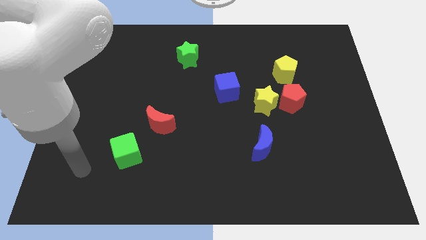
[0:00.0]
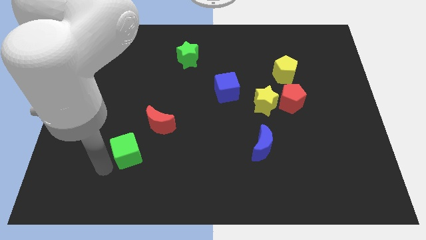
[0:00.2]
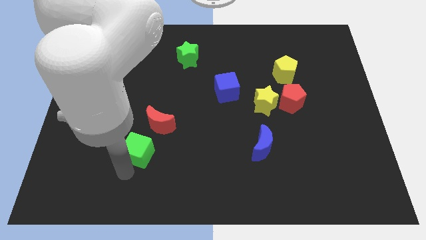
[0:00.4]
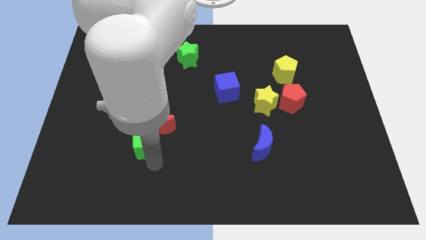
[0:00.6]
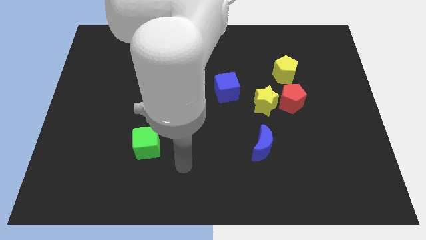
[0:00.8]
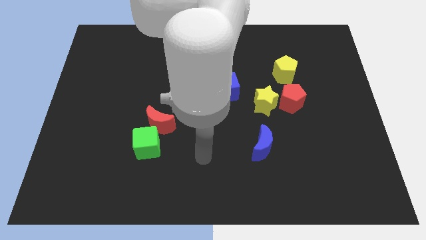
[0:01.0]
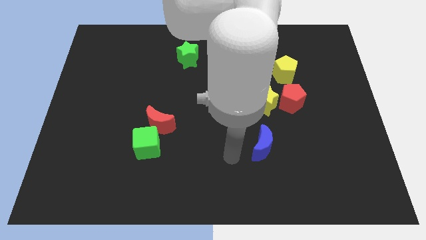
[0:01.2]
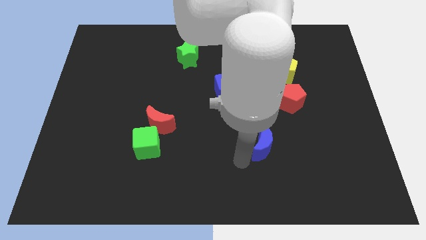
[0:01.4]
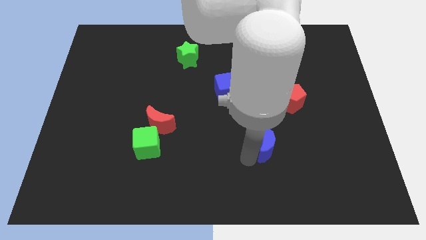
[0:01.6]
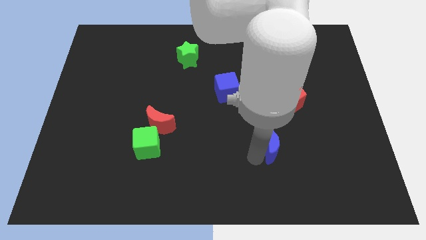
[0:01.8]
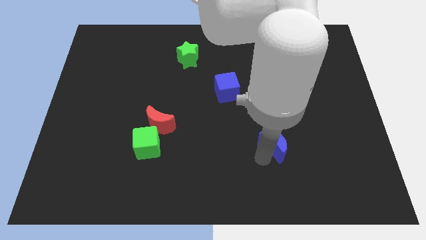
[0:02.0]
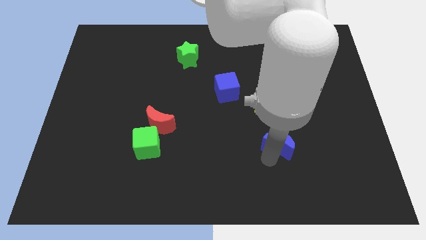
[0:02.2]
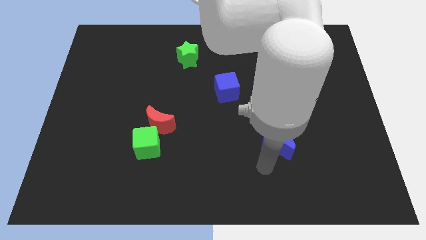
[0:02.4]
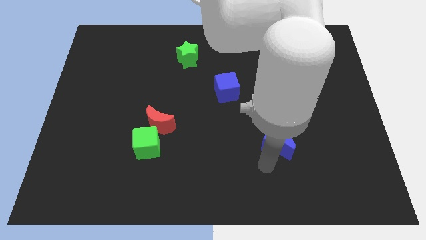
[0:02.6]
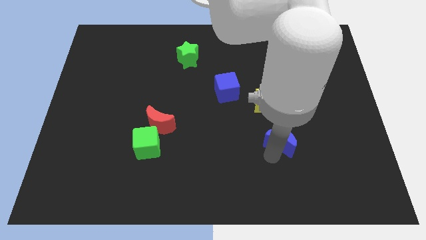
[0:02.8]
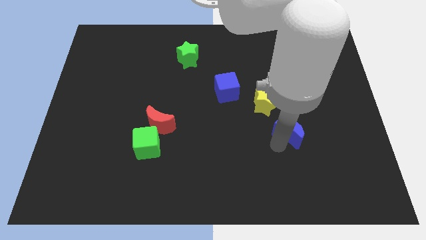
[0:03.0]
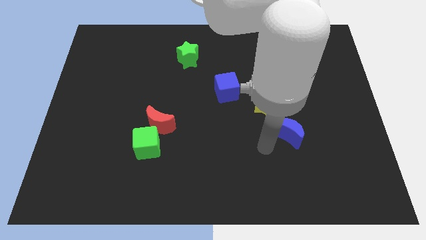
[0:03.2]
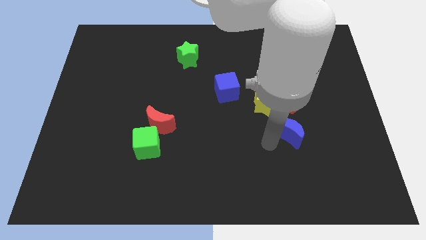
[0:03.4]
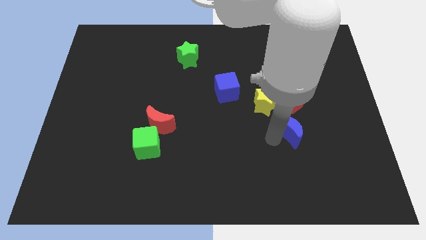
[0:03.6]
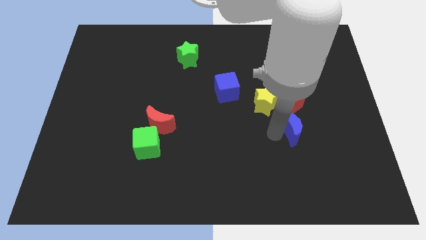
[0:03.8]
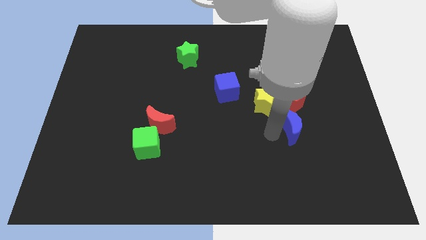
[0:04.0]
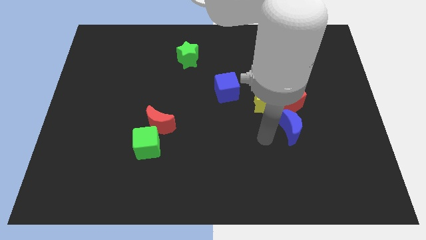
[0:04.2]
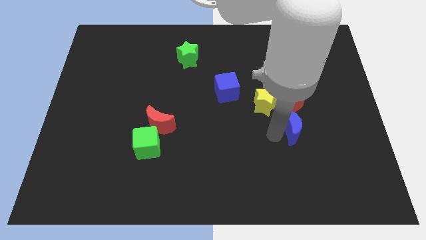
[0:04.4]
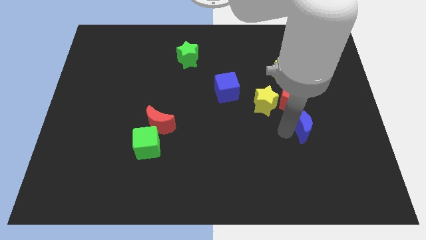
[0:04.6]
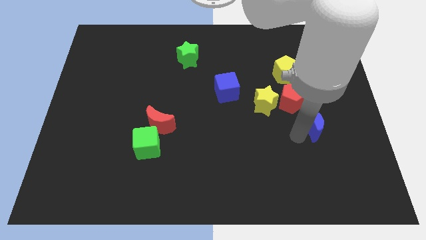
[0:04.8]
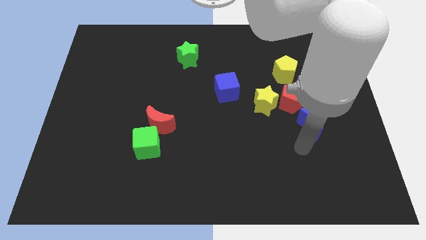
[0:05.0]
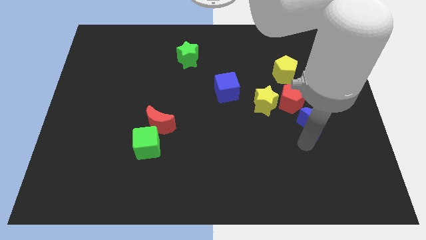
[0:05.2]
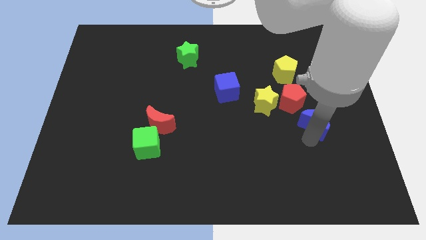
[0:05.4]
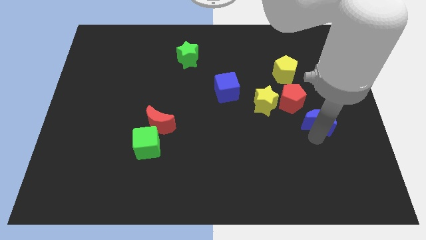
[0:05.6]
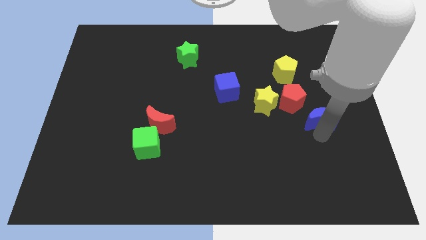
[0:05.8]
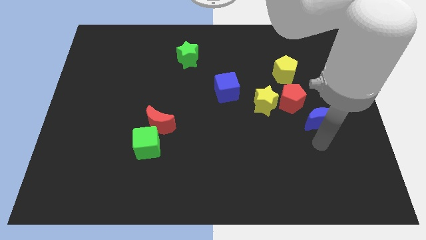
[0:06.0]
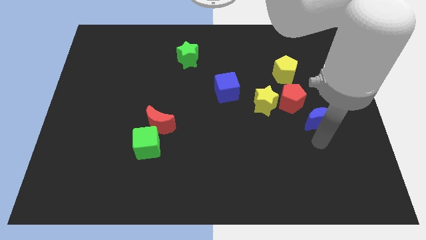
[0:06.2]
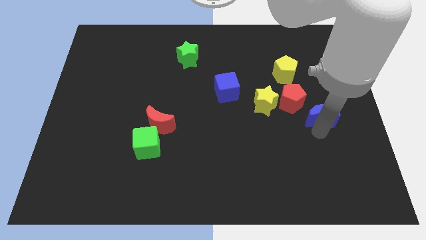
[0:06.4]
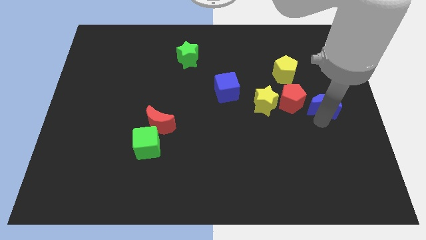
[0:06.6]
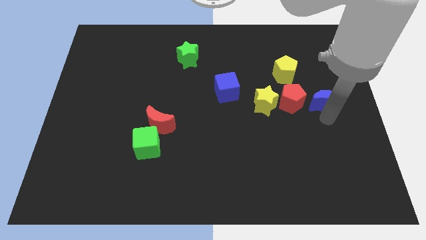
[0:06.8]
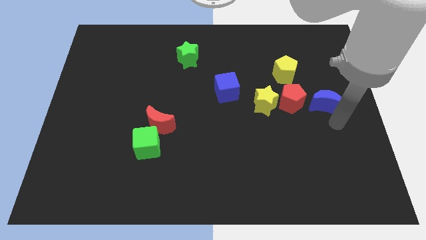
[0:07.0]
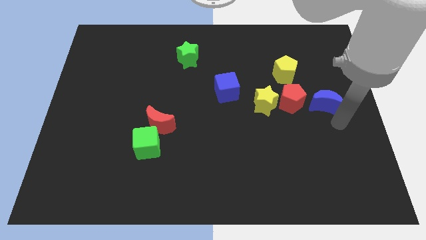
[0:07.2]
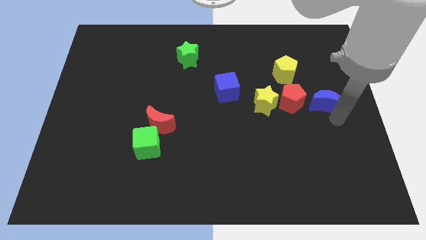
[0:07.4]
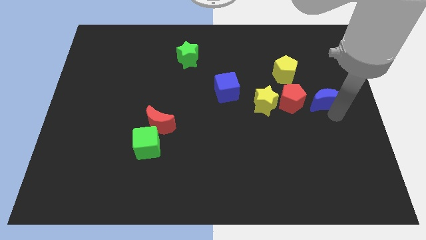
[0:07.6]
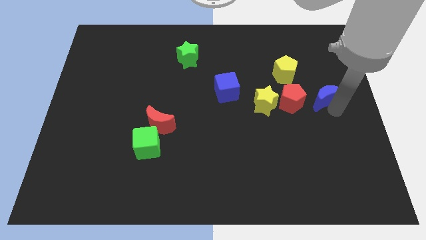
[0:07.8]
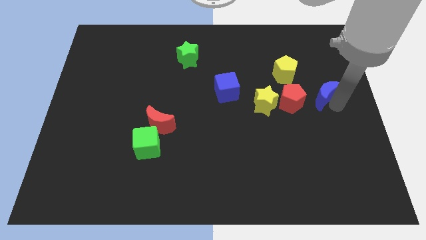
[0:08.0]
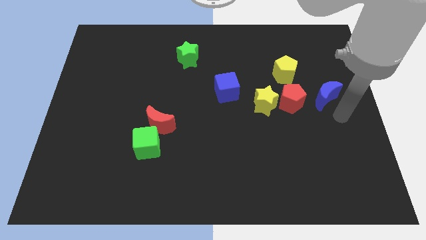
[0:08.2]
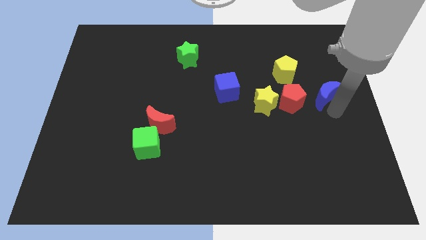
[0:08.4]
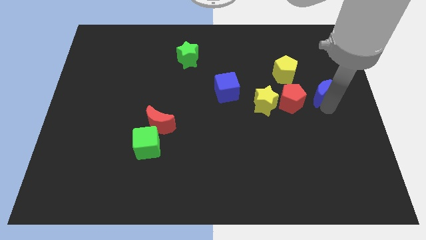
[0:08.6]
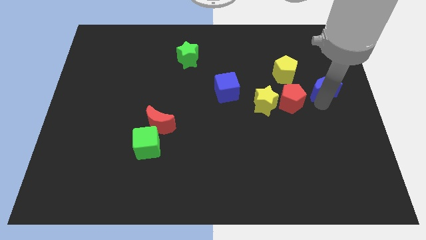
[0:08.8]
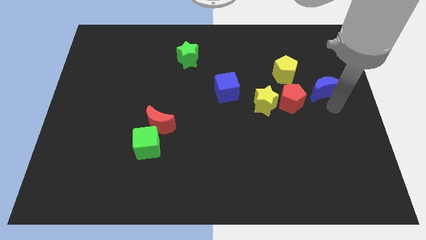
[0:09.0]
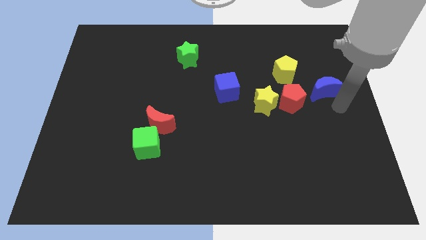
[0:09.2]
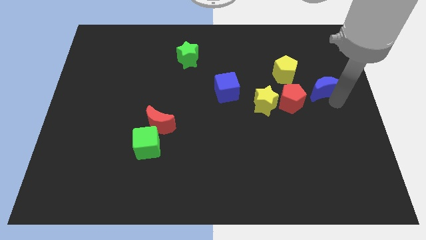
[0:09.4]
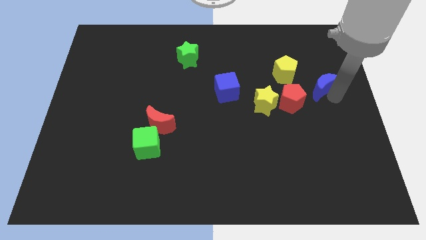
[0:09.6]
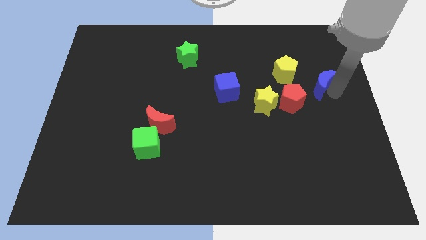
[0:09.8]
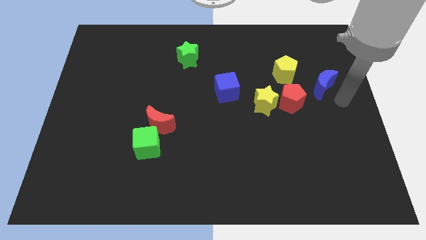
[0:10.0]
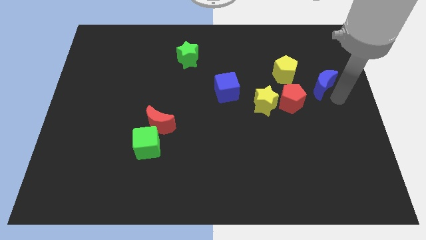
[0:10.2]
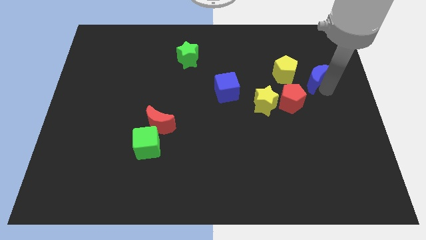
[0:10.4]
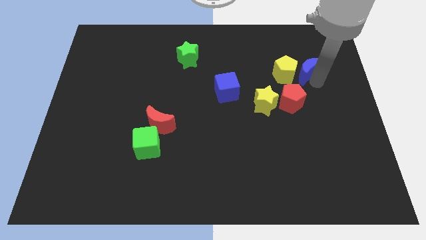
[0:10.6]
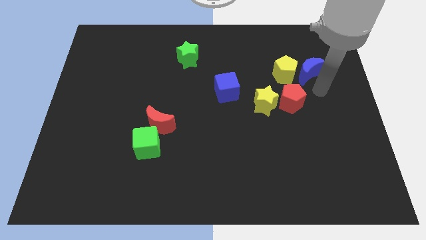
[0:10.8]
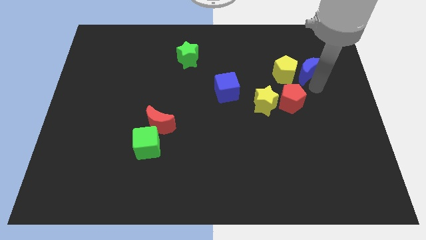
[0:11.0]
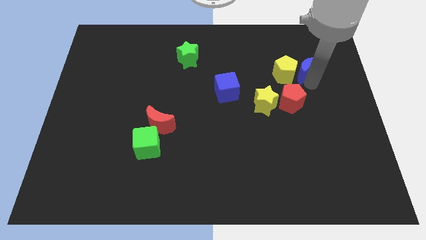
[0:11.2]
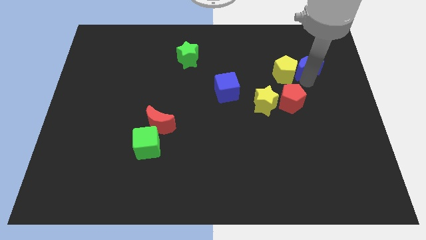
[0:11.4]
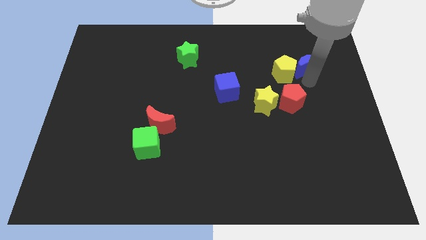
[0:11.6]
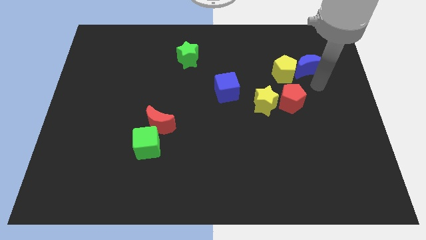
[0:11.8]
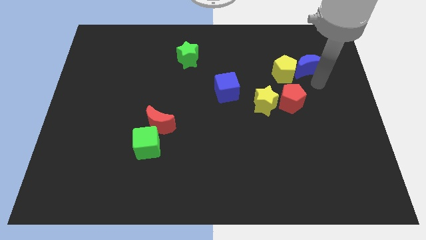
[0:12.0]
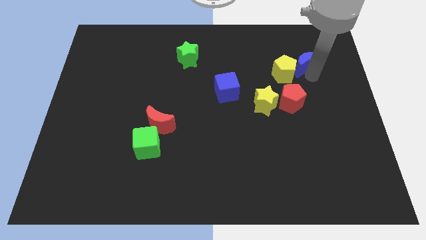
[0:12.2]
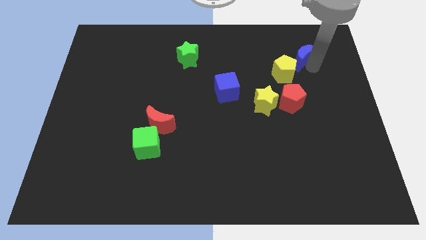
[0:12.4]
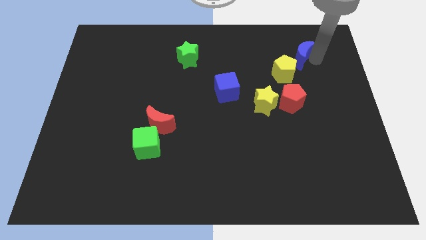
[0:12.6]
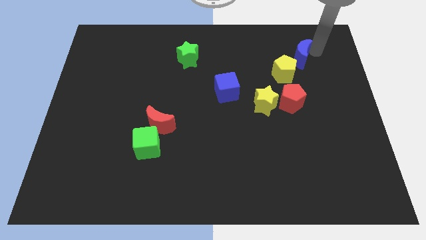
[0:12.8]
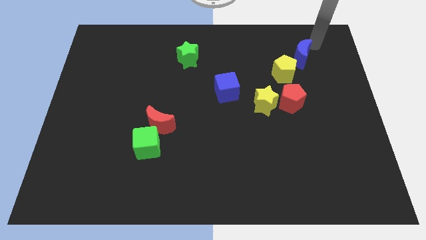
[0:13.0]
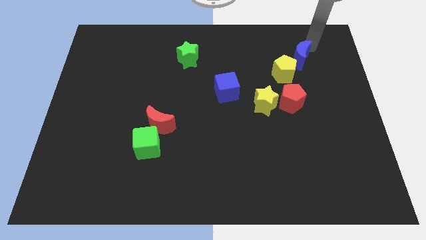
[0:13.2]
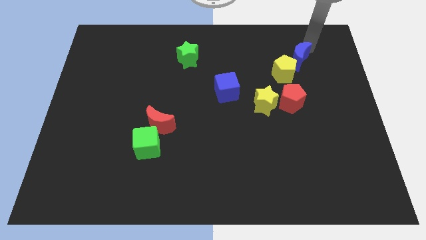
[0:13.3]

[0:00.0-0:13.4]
push the blue moon to the top of the red pentagon
